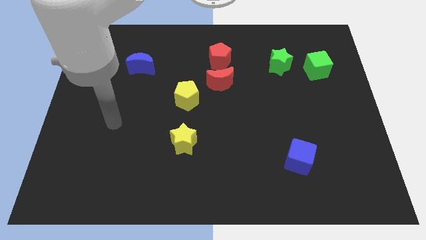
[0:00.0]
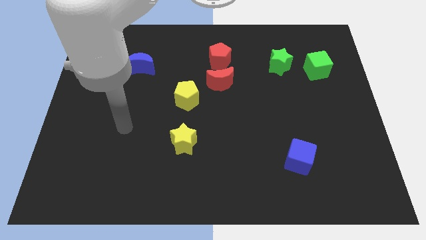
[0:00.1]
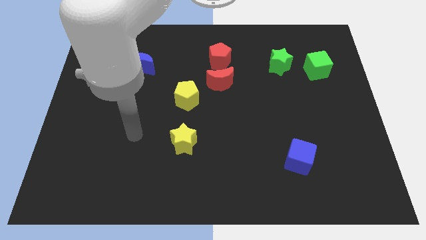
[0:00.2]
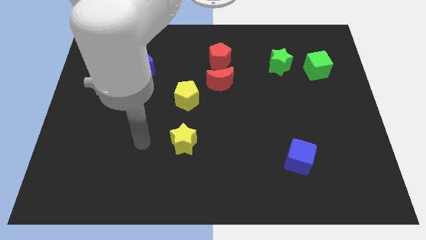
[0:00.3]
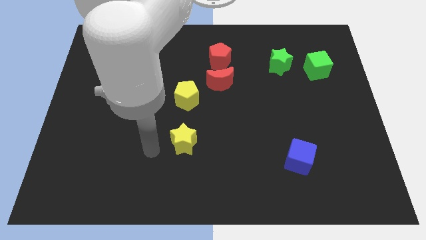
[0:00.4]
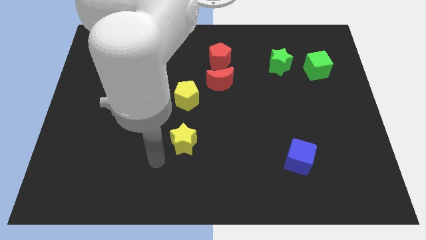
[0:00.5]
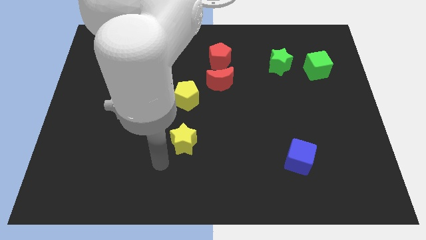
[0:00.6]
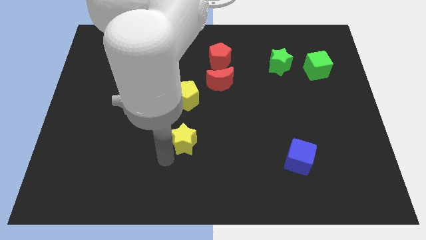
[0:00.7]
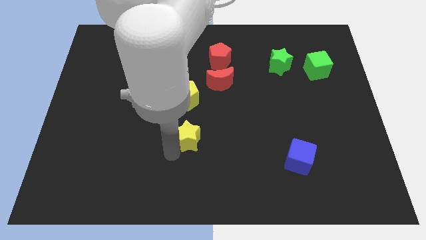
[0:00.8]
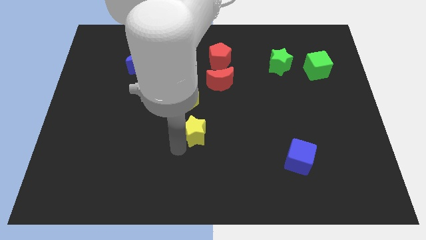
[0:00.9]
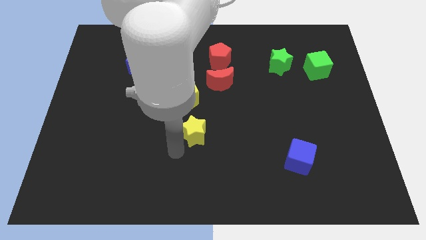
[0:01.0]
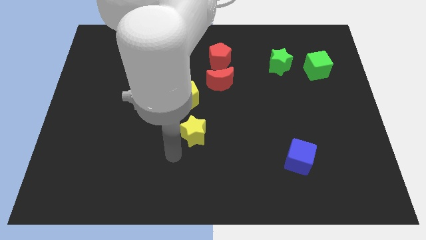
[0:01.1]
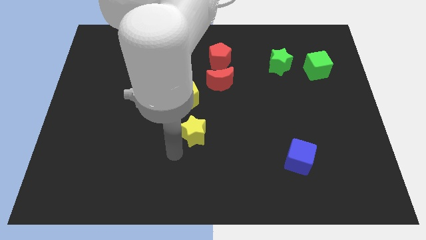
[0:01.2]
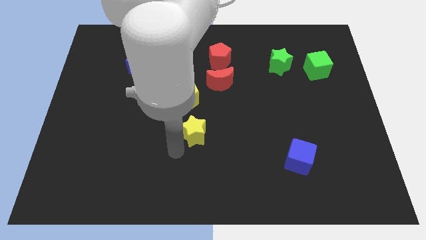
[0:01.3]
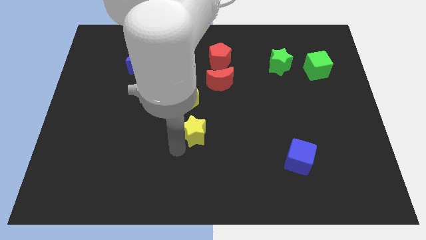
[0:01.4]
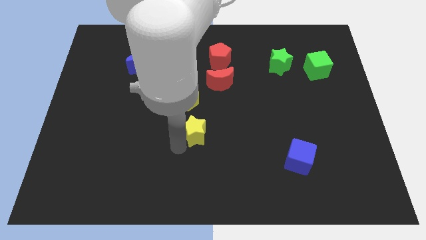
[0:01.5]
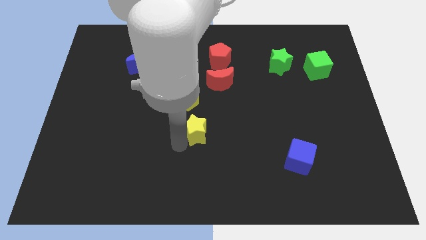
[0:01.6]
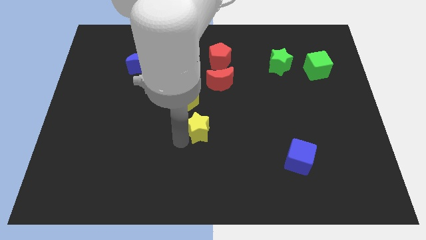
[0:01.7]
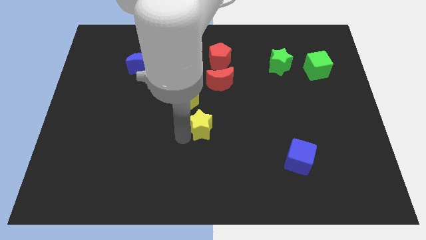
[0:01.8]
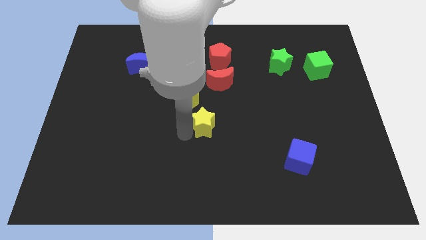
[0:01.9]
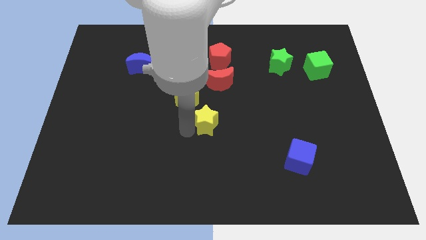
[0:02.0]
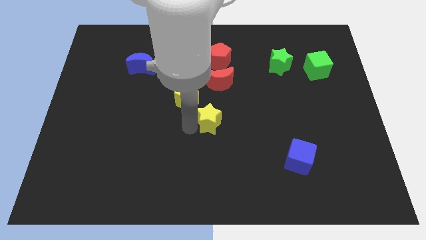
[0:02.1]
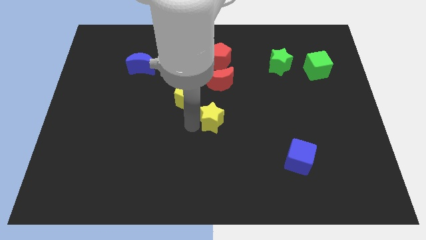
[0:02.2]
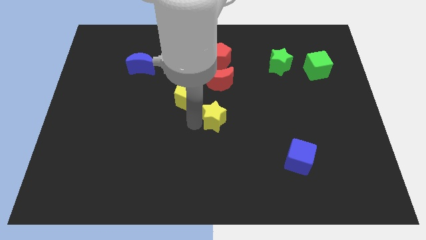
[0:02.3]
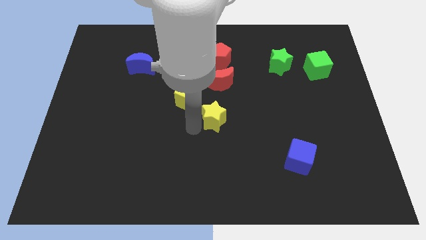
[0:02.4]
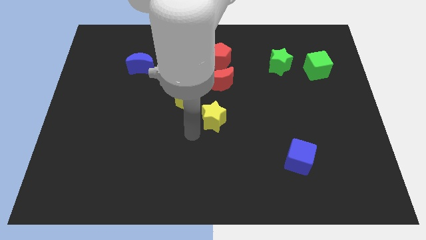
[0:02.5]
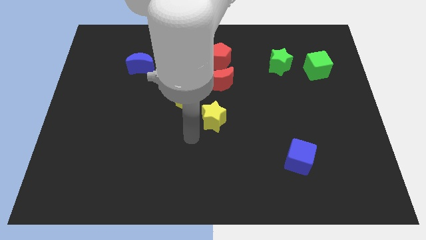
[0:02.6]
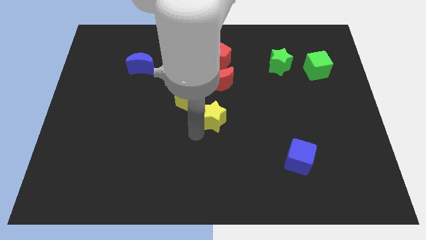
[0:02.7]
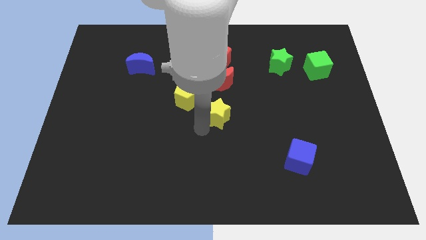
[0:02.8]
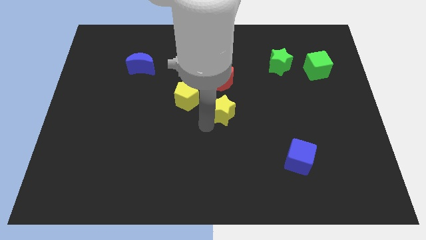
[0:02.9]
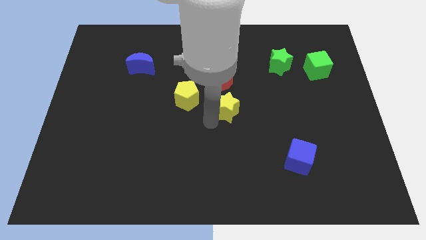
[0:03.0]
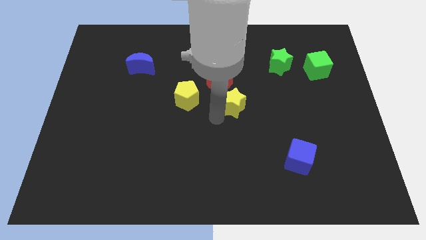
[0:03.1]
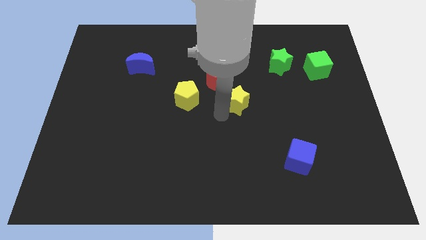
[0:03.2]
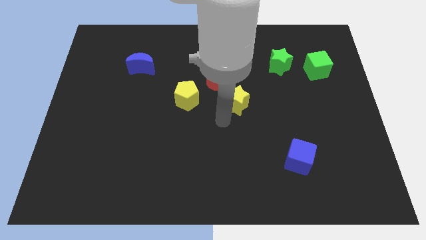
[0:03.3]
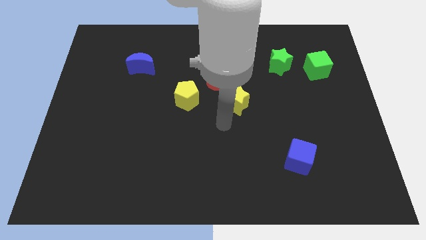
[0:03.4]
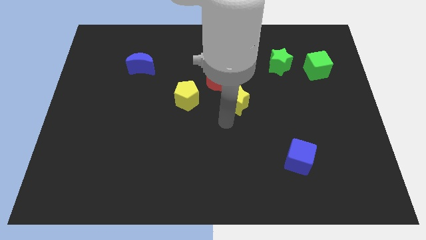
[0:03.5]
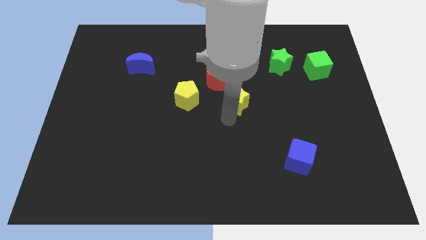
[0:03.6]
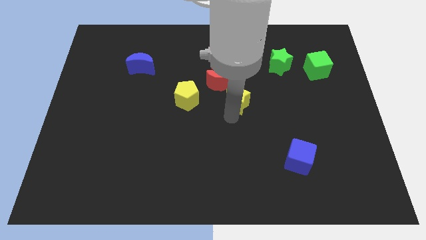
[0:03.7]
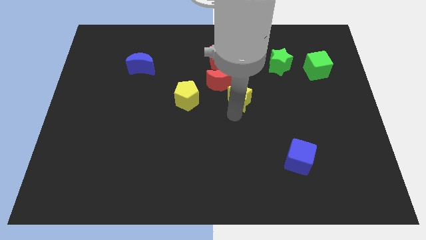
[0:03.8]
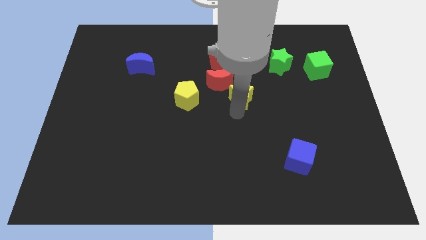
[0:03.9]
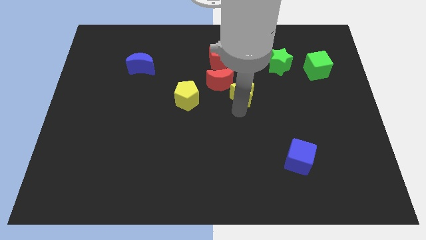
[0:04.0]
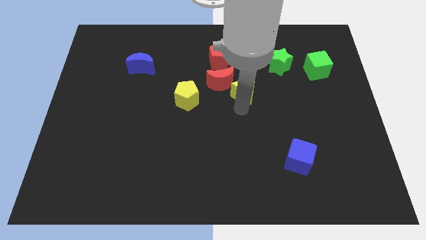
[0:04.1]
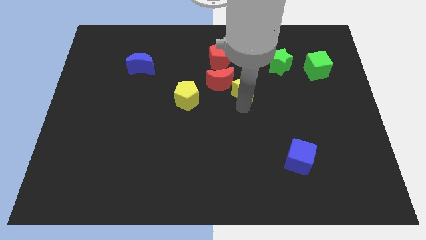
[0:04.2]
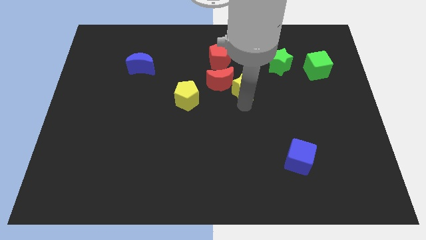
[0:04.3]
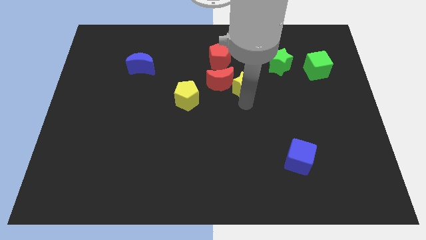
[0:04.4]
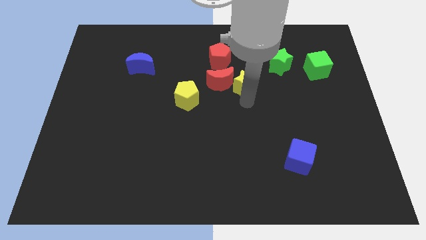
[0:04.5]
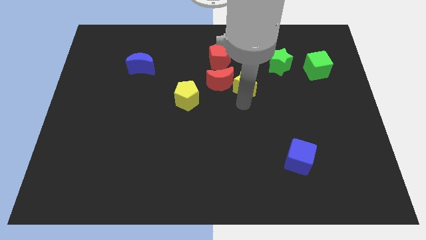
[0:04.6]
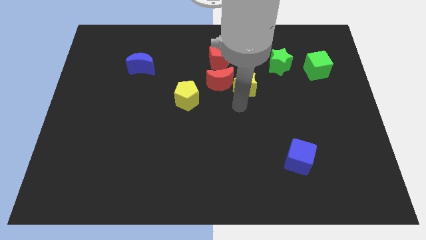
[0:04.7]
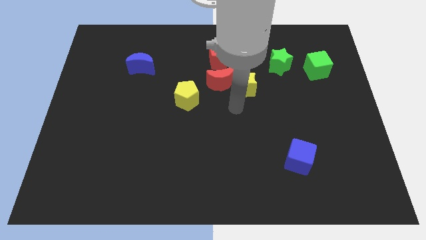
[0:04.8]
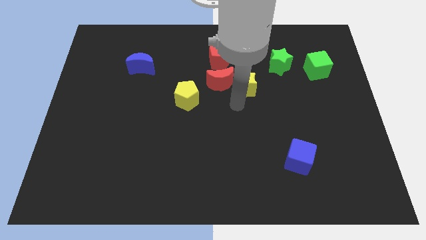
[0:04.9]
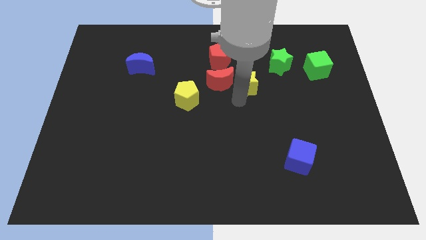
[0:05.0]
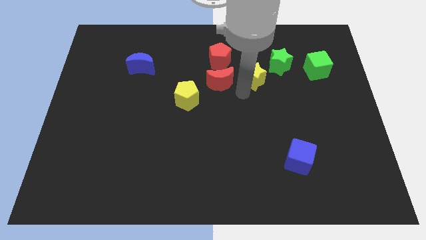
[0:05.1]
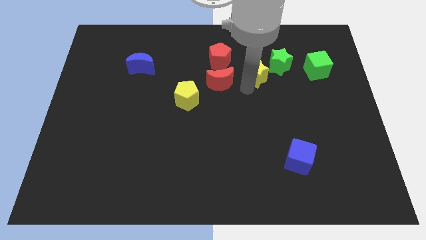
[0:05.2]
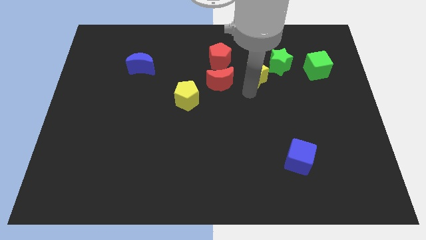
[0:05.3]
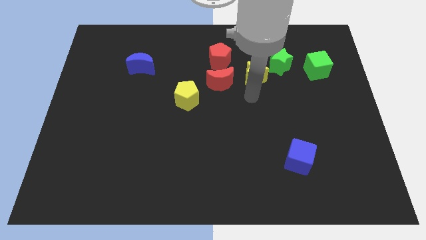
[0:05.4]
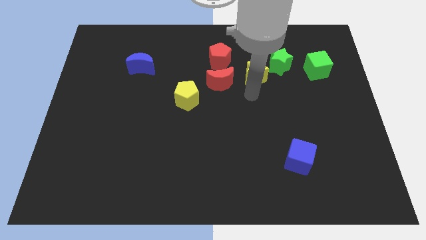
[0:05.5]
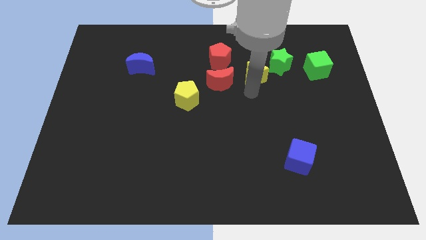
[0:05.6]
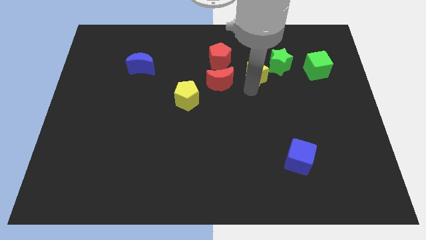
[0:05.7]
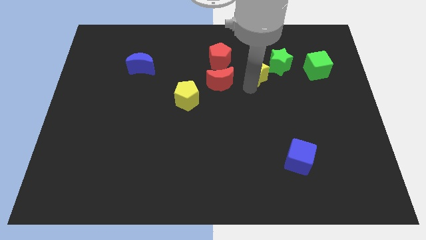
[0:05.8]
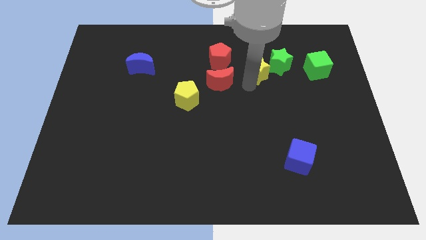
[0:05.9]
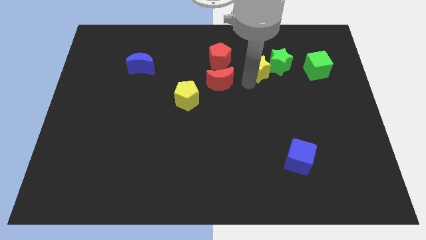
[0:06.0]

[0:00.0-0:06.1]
move the yellow star just right of the red pentagon

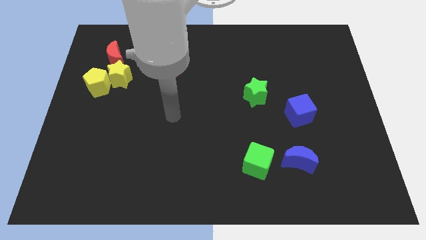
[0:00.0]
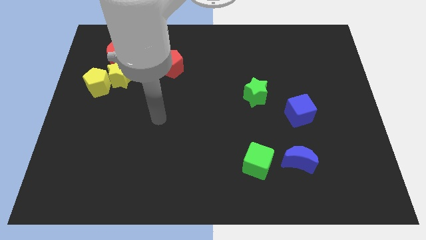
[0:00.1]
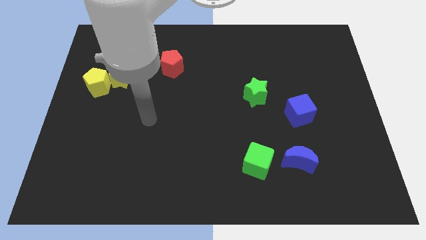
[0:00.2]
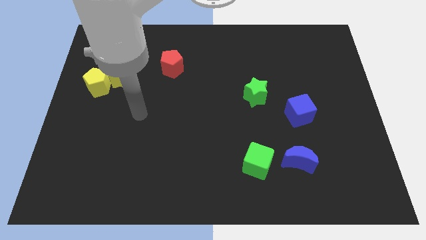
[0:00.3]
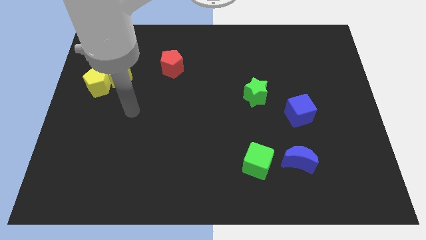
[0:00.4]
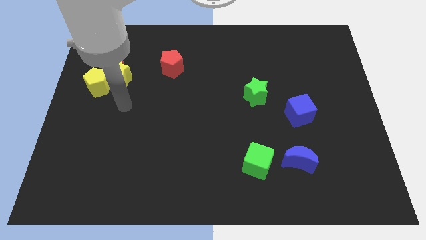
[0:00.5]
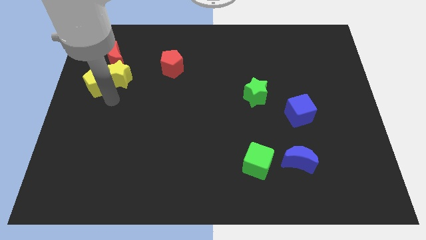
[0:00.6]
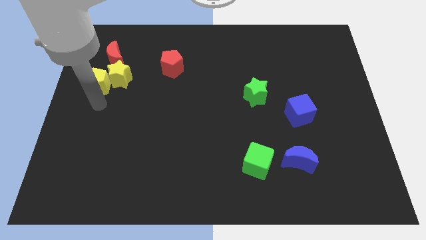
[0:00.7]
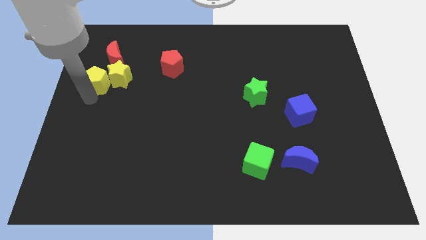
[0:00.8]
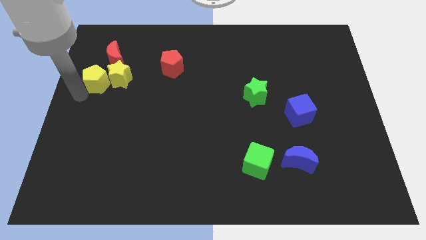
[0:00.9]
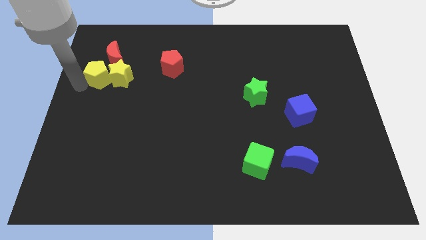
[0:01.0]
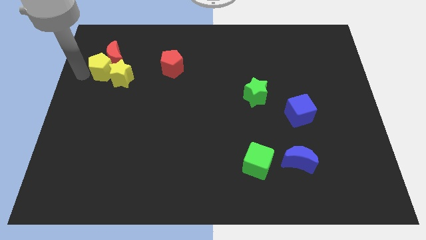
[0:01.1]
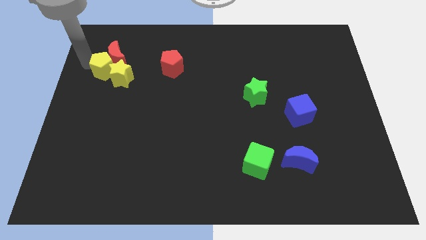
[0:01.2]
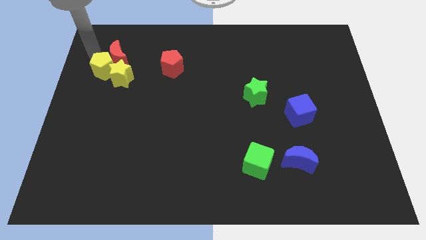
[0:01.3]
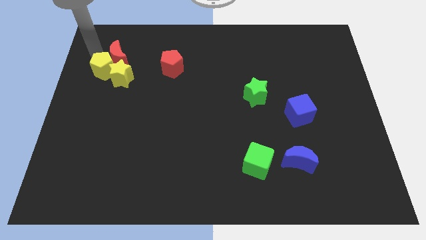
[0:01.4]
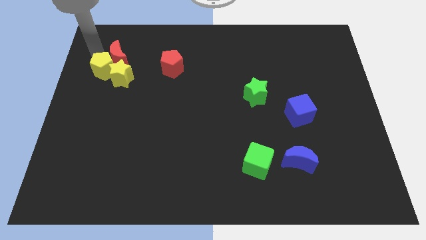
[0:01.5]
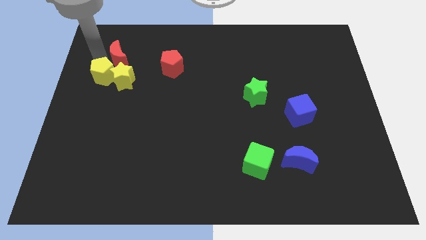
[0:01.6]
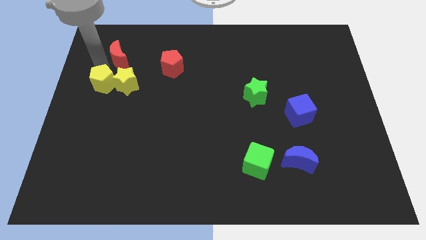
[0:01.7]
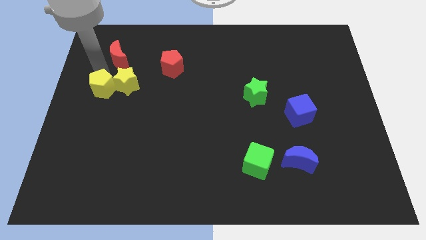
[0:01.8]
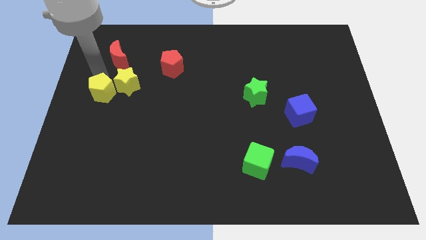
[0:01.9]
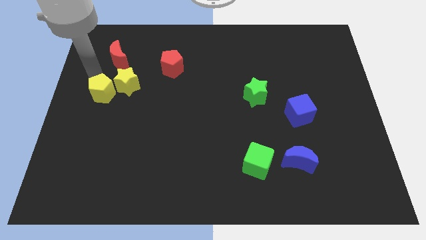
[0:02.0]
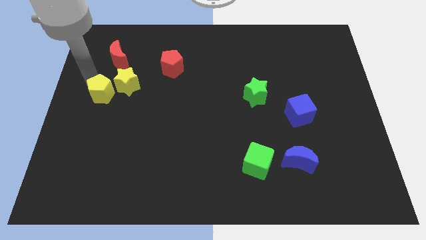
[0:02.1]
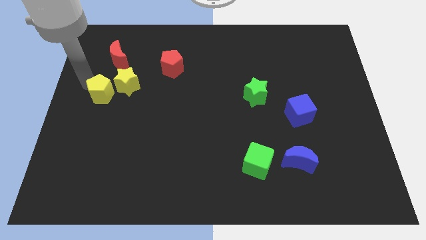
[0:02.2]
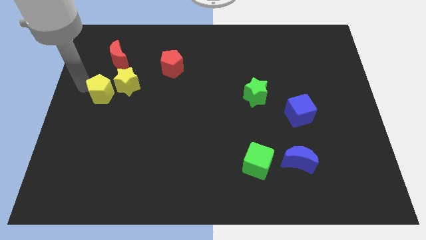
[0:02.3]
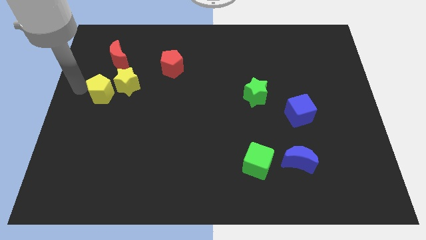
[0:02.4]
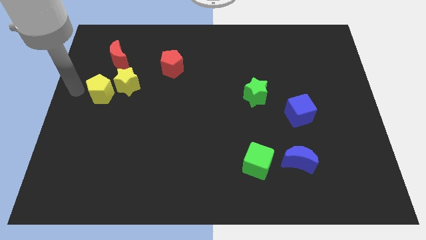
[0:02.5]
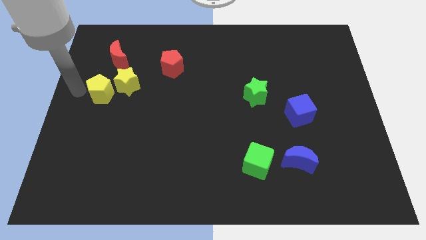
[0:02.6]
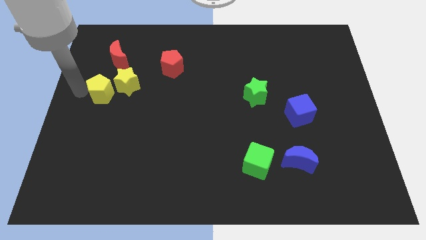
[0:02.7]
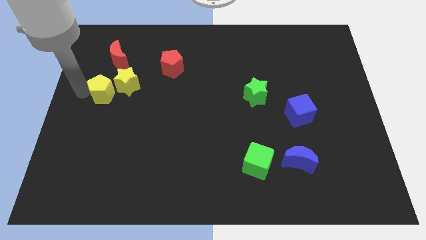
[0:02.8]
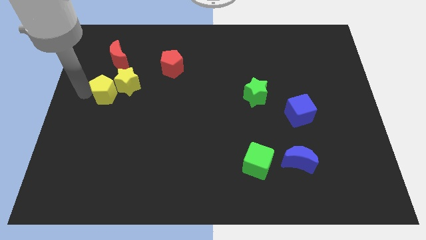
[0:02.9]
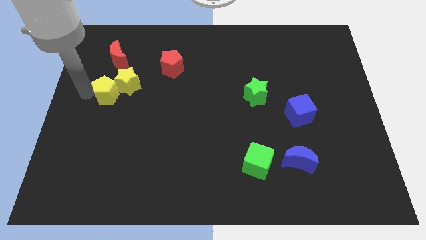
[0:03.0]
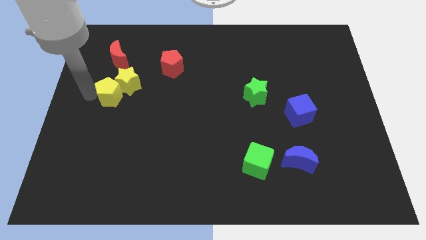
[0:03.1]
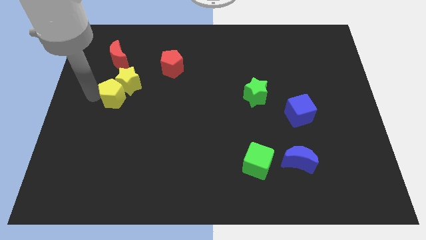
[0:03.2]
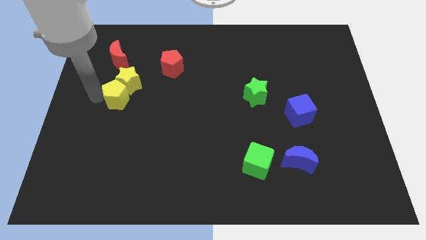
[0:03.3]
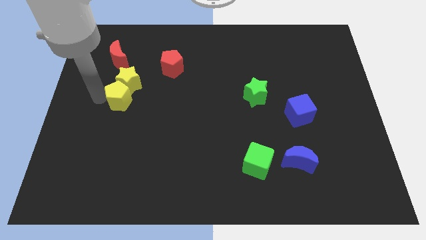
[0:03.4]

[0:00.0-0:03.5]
move the yellow pentagon to the bottom right side of the yellow star
